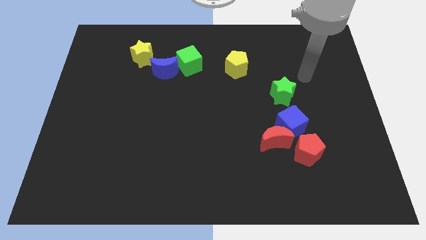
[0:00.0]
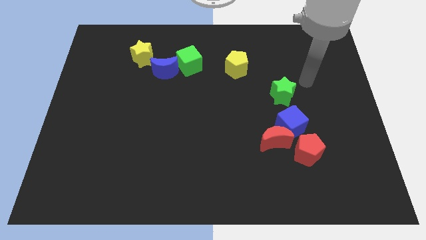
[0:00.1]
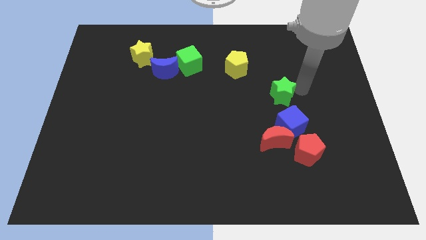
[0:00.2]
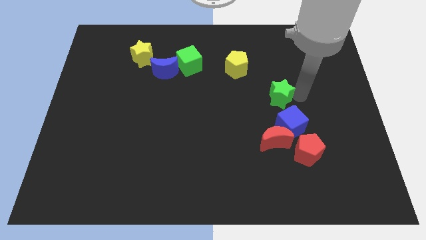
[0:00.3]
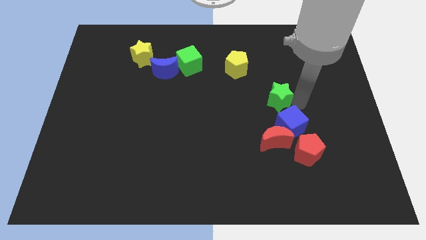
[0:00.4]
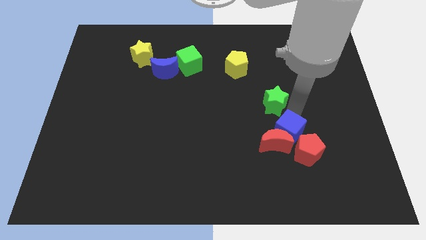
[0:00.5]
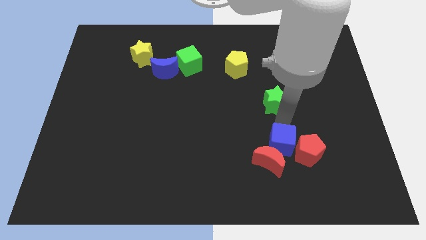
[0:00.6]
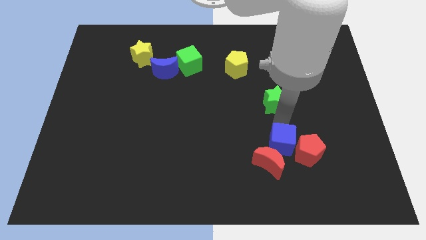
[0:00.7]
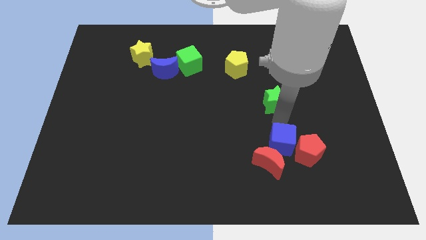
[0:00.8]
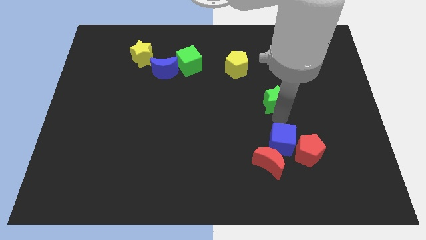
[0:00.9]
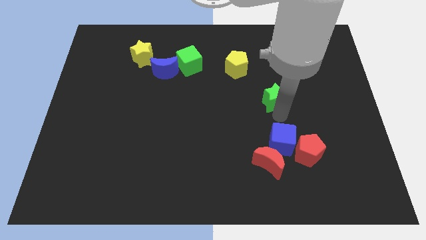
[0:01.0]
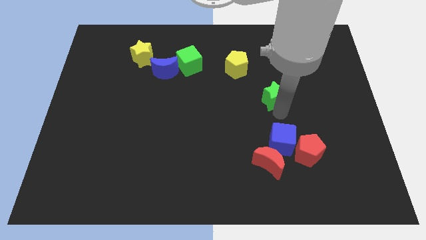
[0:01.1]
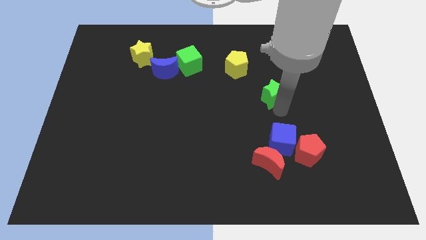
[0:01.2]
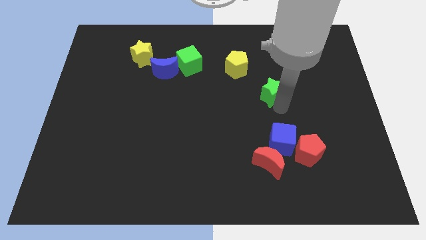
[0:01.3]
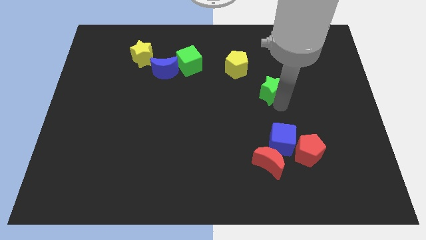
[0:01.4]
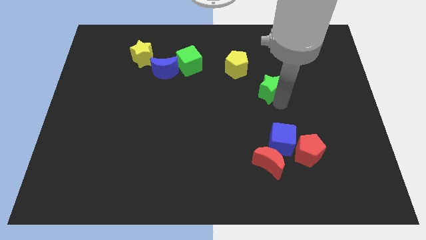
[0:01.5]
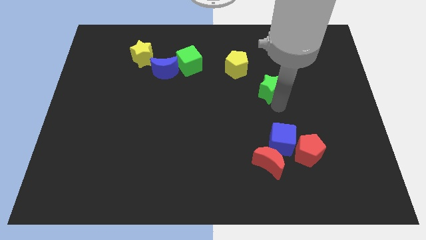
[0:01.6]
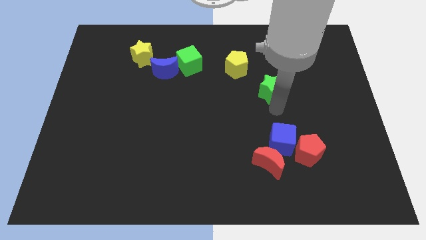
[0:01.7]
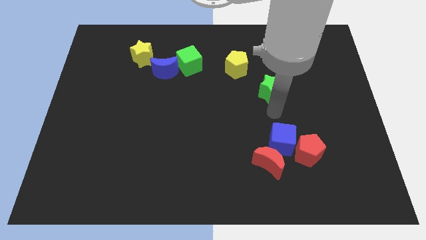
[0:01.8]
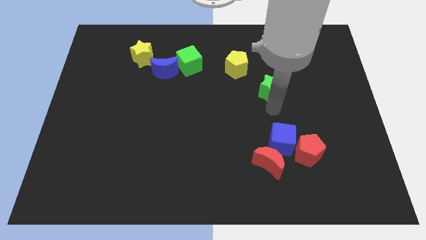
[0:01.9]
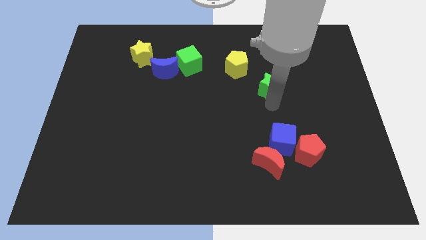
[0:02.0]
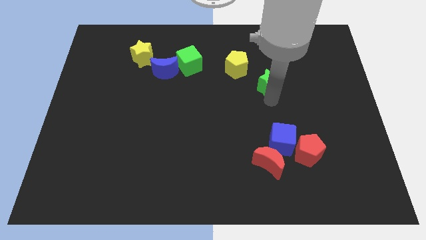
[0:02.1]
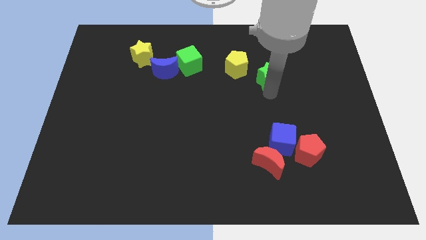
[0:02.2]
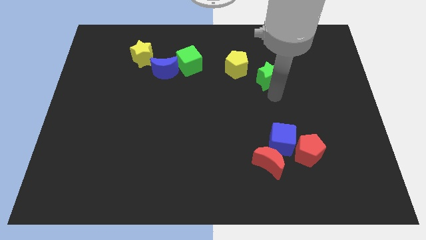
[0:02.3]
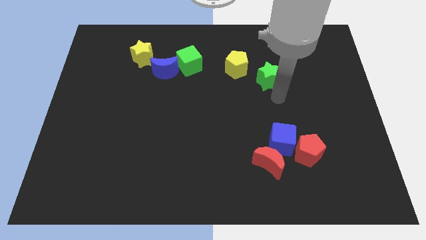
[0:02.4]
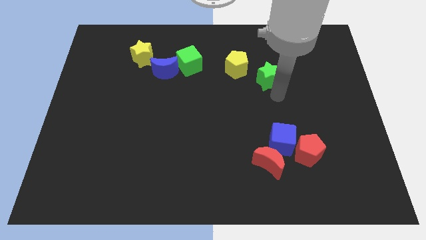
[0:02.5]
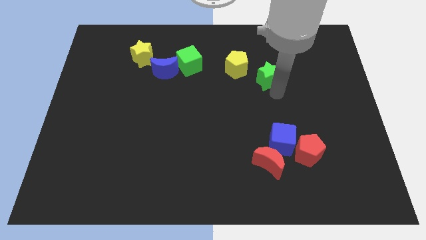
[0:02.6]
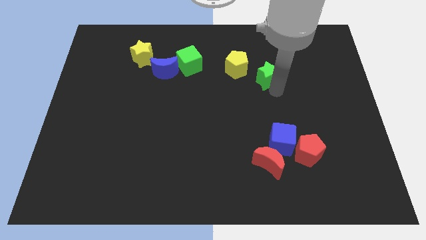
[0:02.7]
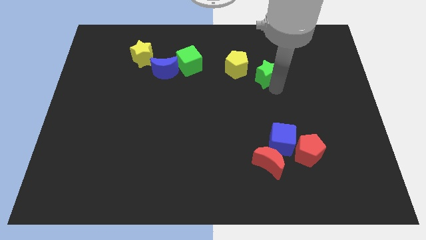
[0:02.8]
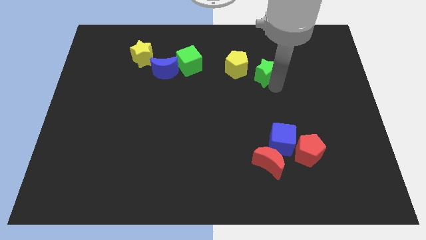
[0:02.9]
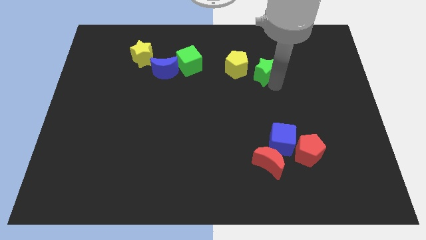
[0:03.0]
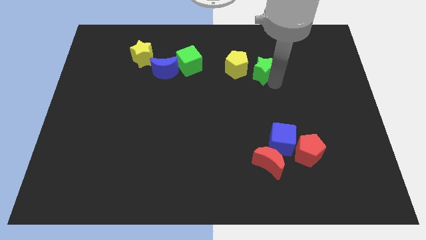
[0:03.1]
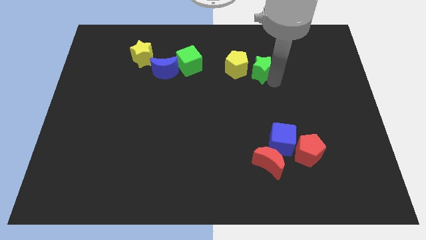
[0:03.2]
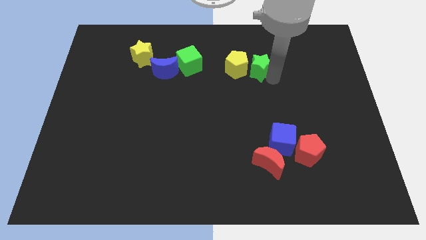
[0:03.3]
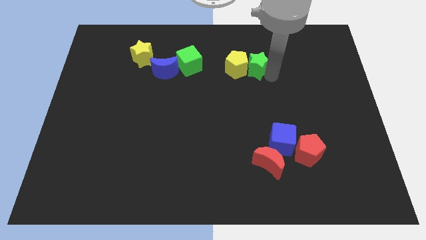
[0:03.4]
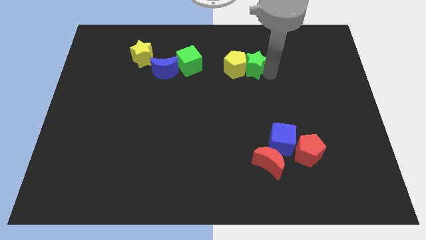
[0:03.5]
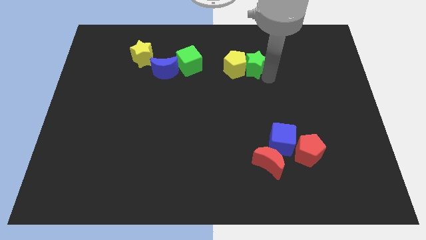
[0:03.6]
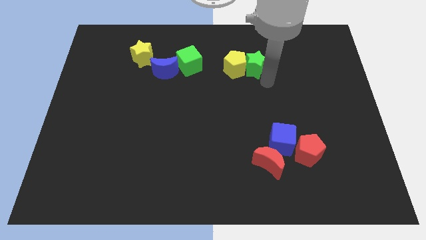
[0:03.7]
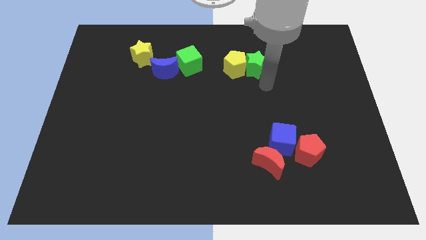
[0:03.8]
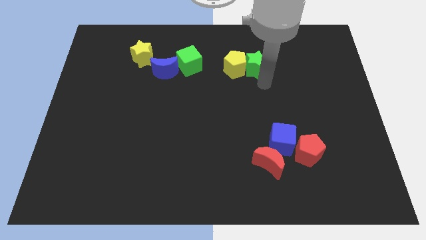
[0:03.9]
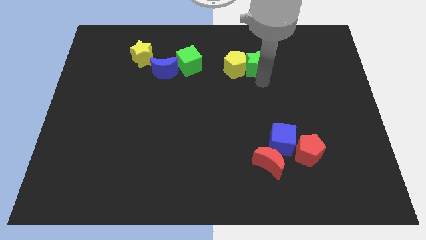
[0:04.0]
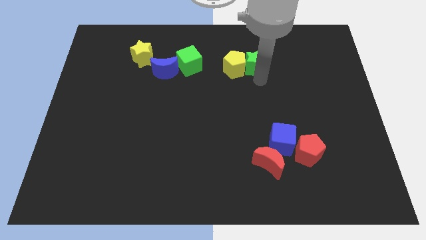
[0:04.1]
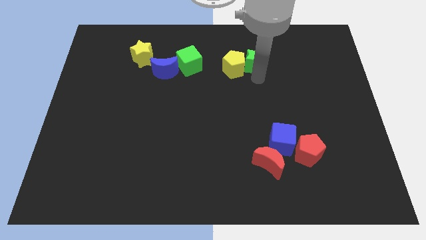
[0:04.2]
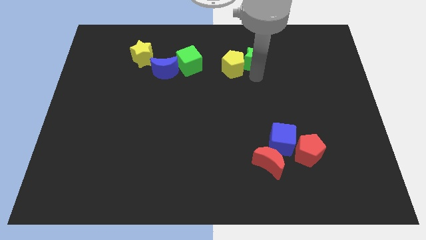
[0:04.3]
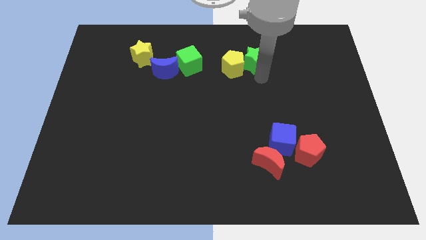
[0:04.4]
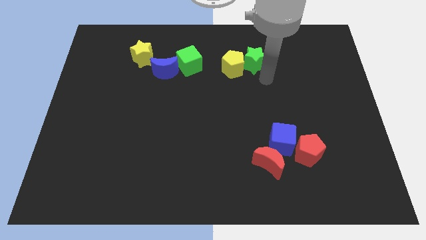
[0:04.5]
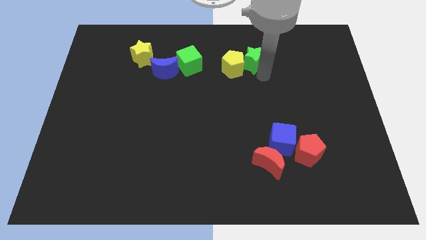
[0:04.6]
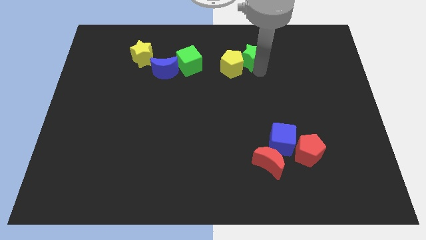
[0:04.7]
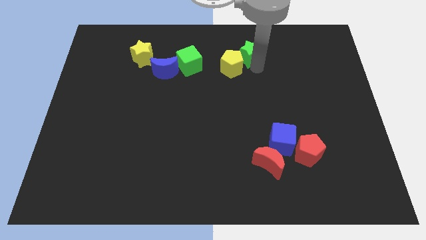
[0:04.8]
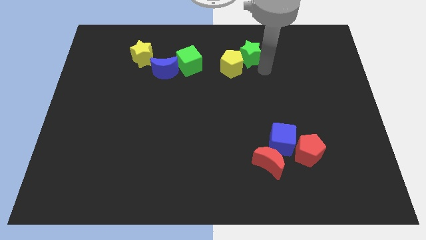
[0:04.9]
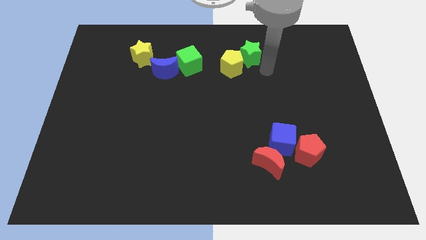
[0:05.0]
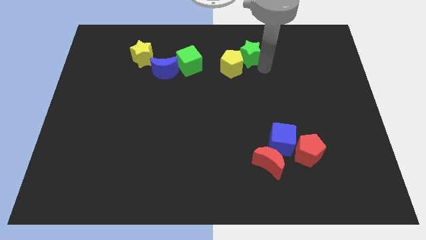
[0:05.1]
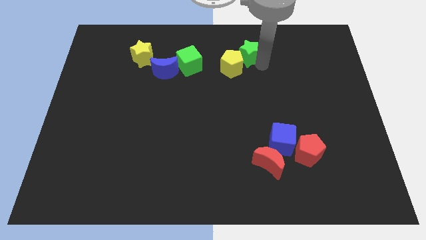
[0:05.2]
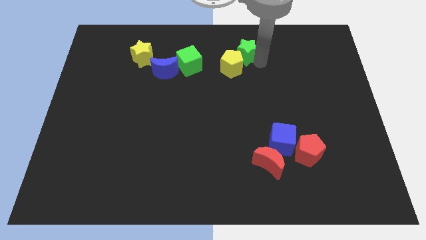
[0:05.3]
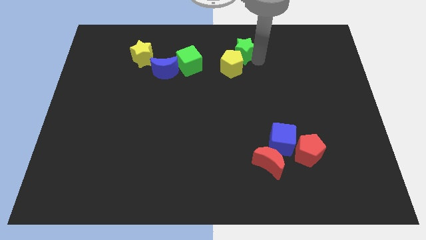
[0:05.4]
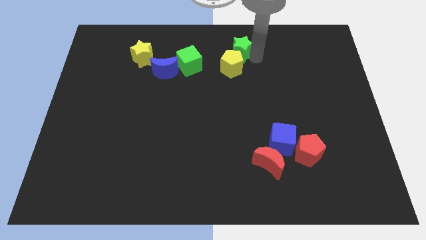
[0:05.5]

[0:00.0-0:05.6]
push the green star to the top

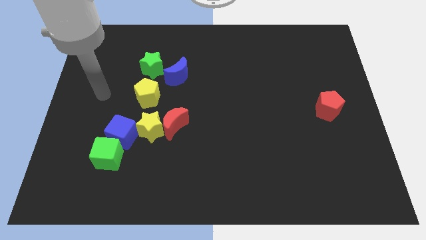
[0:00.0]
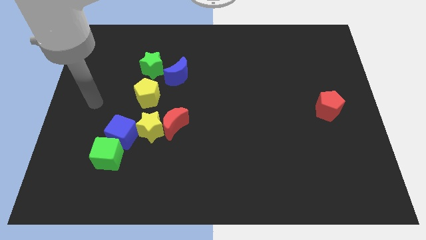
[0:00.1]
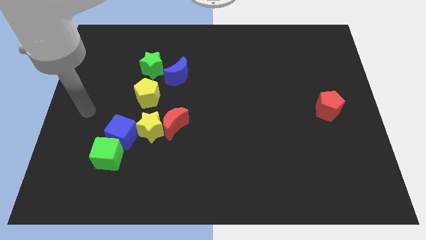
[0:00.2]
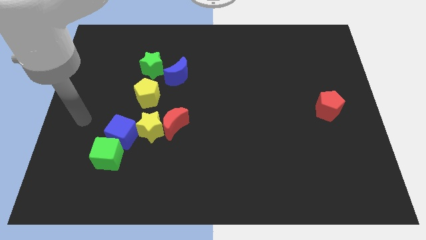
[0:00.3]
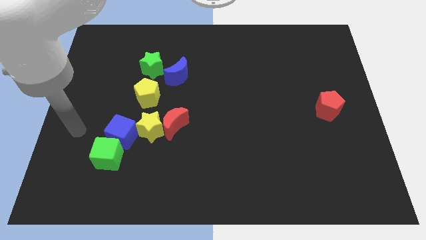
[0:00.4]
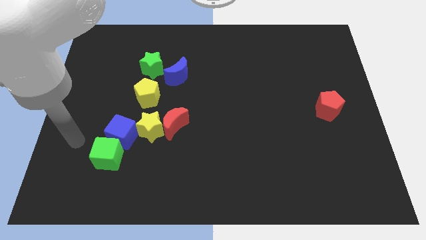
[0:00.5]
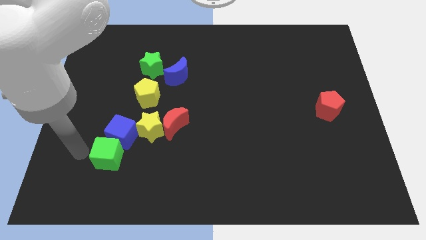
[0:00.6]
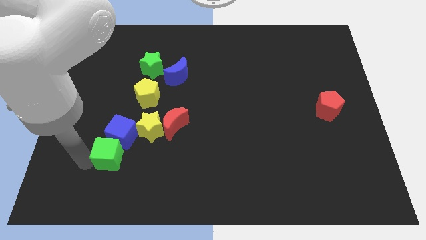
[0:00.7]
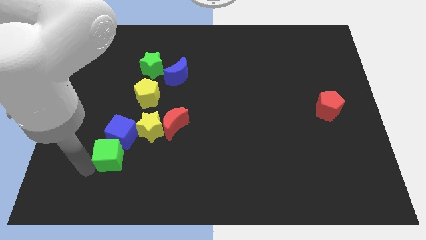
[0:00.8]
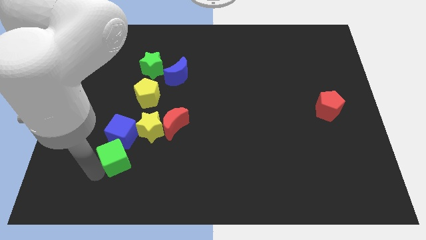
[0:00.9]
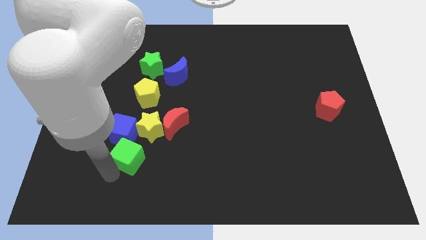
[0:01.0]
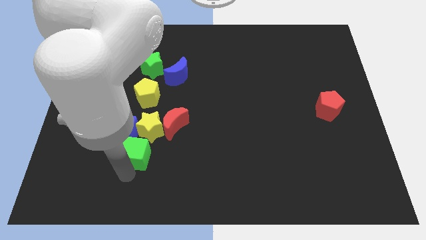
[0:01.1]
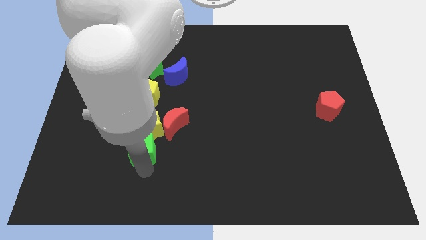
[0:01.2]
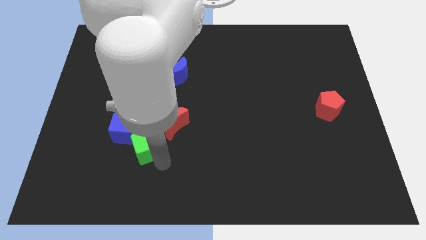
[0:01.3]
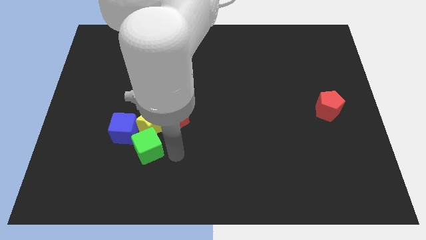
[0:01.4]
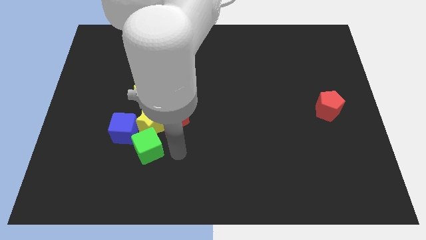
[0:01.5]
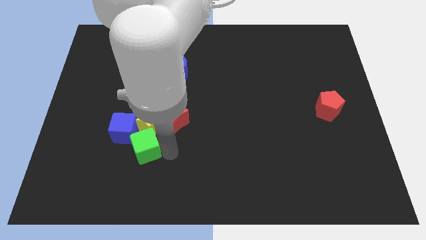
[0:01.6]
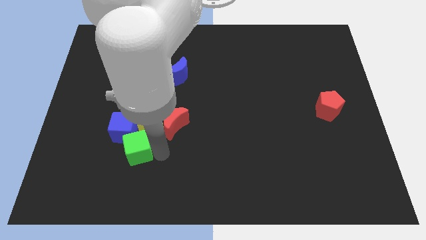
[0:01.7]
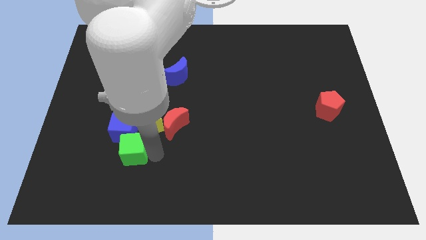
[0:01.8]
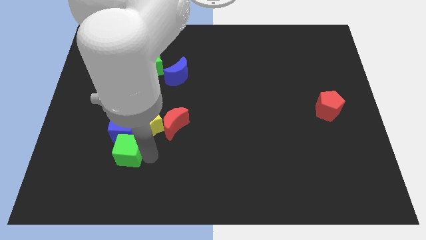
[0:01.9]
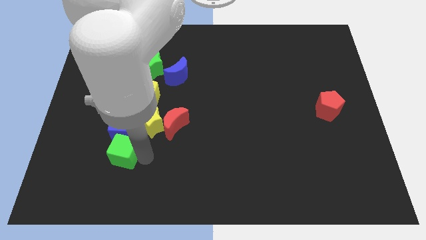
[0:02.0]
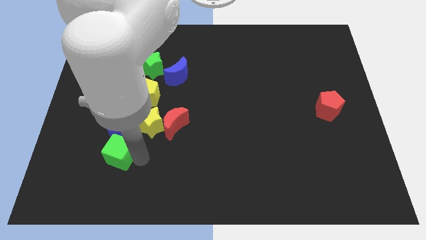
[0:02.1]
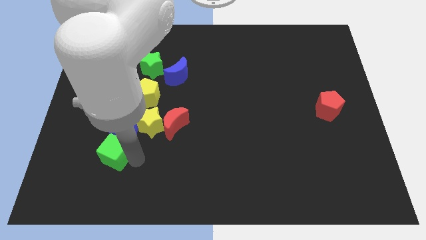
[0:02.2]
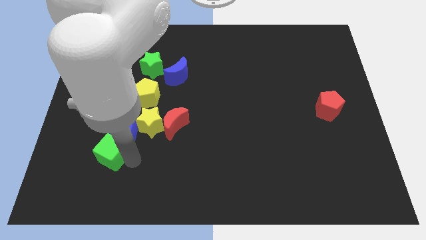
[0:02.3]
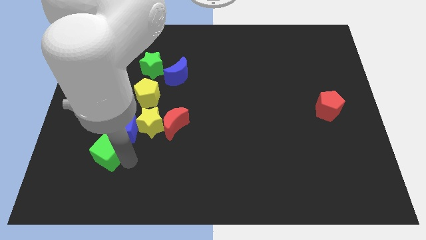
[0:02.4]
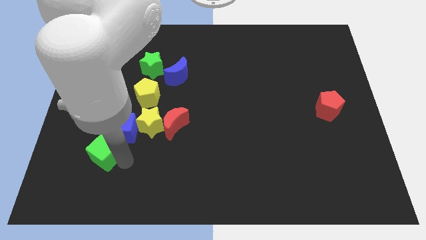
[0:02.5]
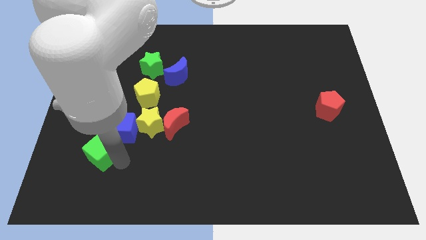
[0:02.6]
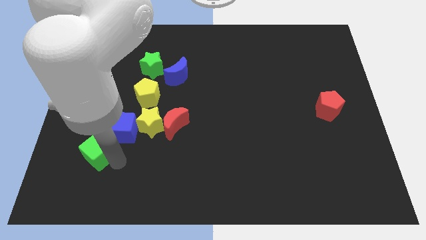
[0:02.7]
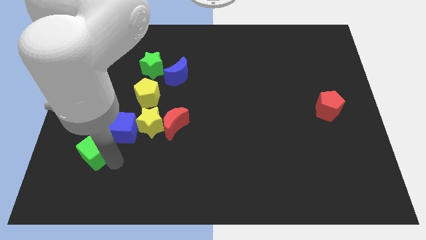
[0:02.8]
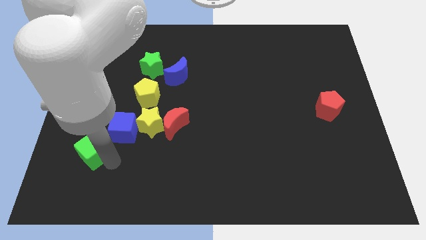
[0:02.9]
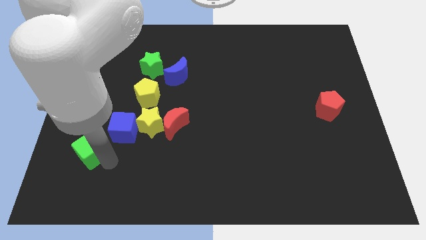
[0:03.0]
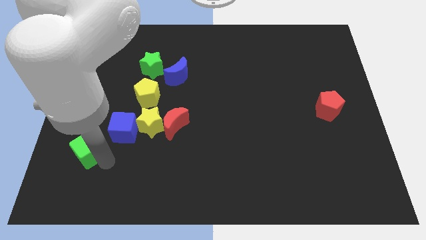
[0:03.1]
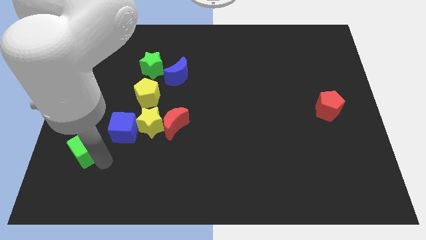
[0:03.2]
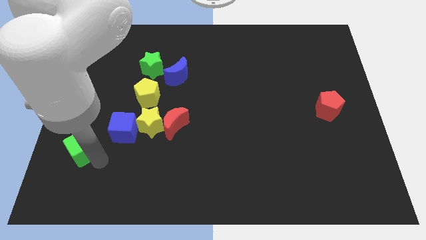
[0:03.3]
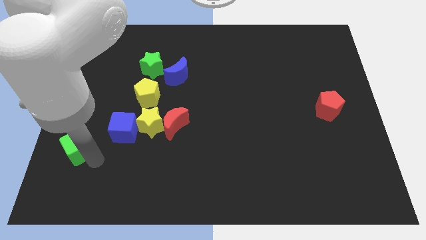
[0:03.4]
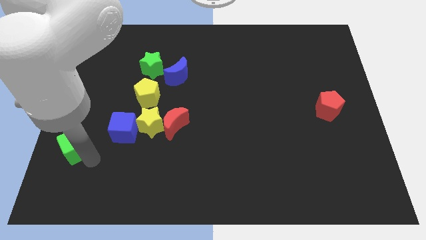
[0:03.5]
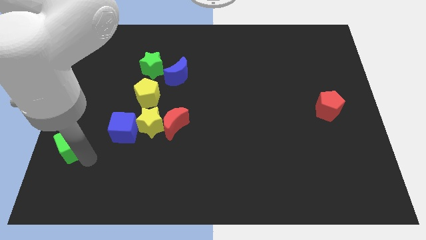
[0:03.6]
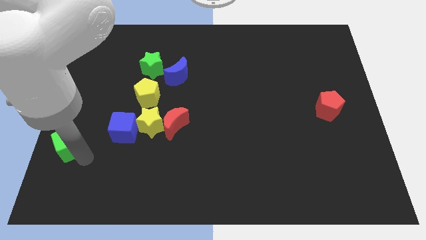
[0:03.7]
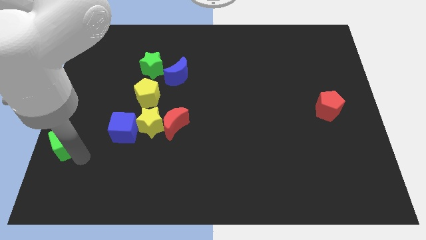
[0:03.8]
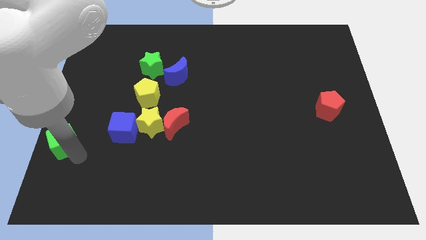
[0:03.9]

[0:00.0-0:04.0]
move the green cube to the center left
